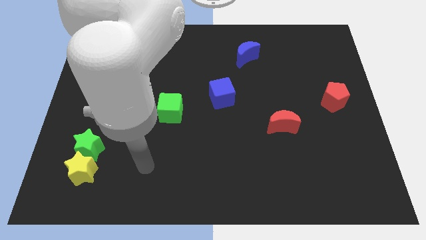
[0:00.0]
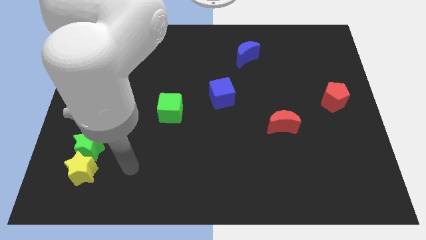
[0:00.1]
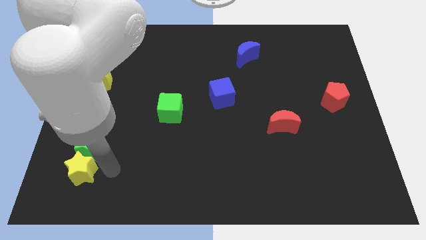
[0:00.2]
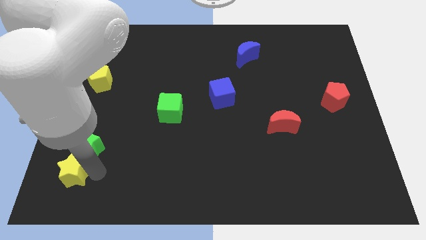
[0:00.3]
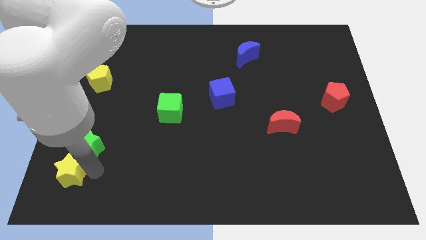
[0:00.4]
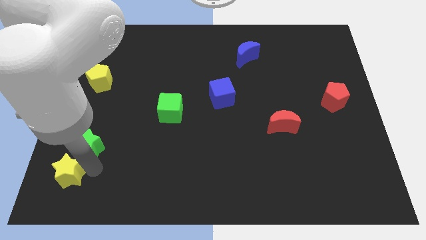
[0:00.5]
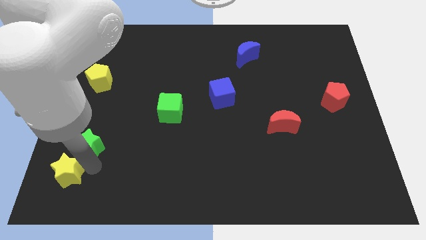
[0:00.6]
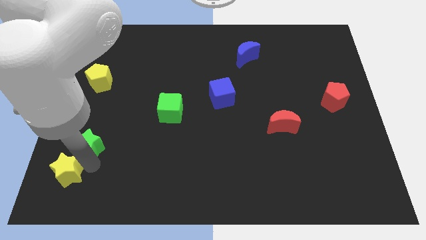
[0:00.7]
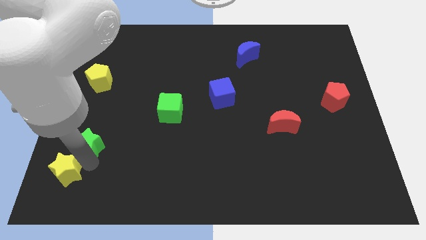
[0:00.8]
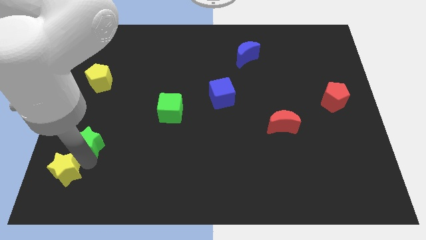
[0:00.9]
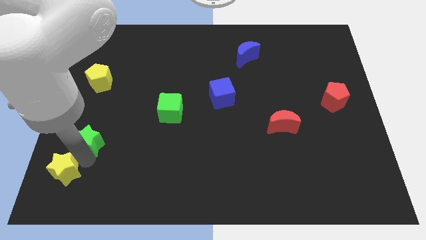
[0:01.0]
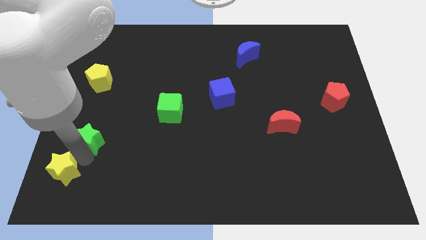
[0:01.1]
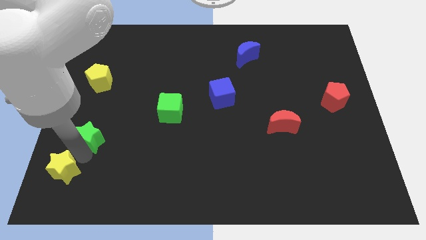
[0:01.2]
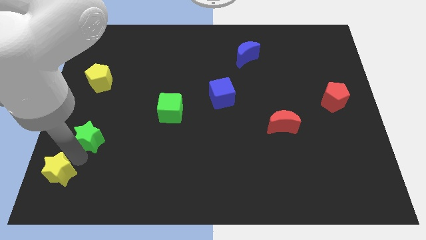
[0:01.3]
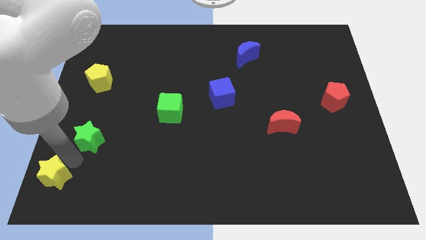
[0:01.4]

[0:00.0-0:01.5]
move the green star away from the yellow star

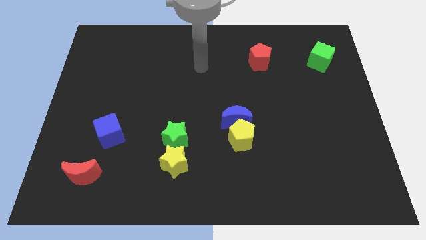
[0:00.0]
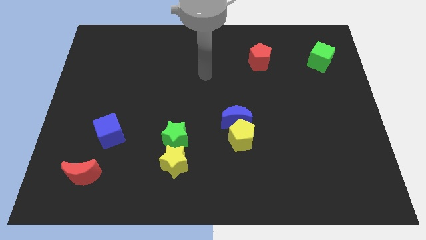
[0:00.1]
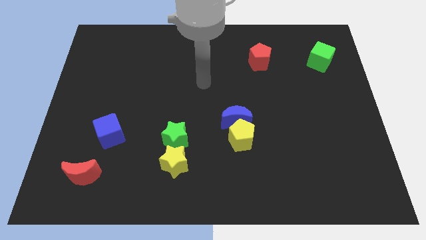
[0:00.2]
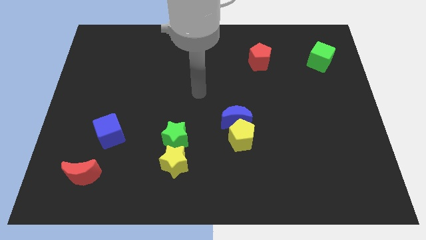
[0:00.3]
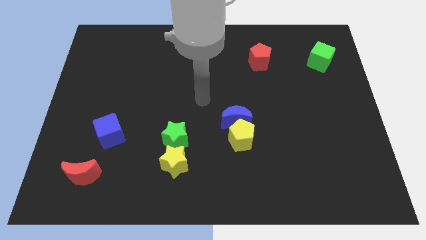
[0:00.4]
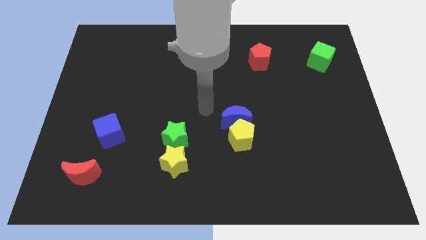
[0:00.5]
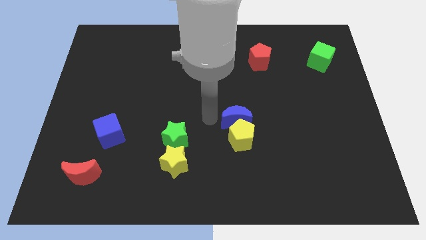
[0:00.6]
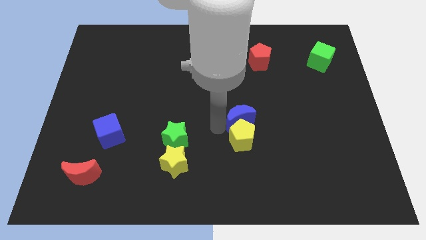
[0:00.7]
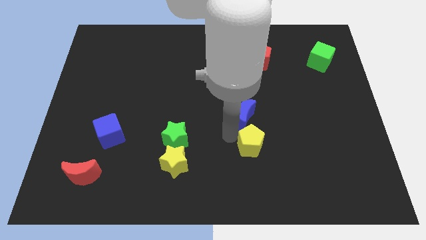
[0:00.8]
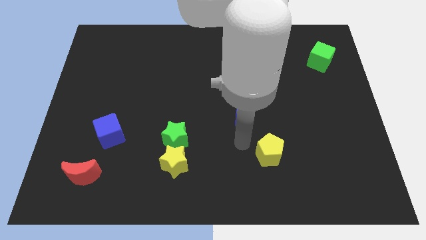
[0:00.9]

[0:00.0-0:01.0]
move the blue moon away from the yellow pentagon

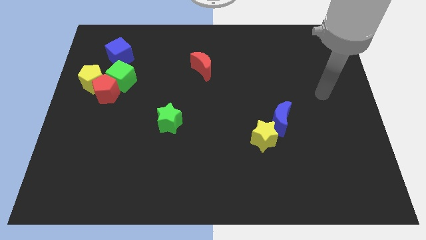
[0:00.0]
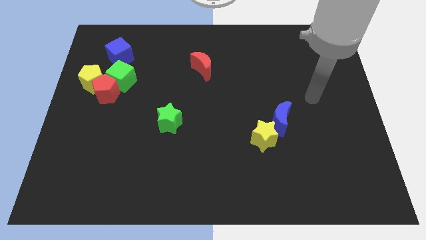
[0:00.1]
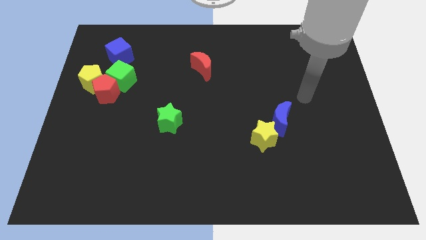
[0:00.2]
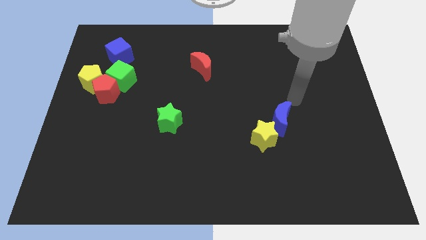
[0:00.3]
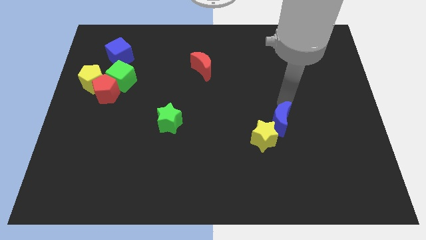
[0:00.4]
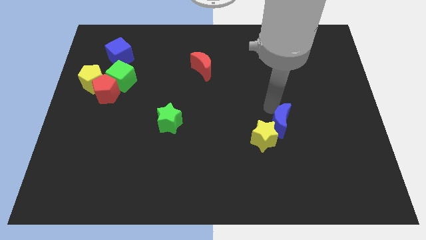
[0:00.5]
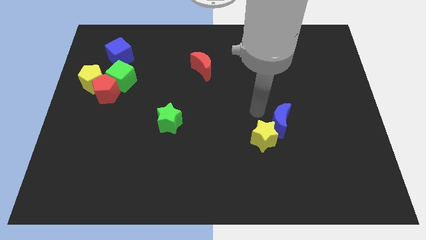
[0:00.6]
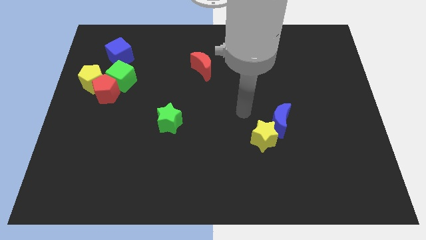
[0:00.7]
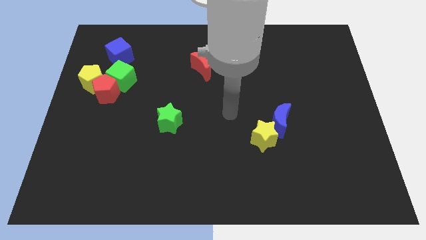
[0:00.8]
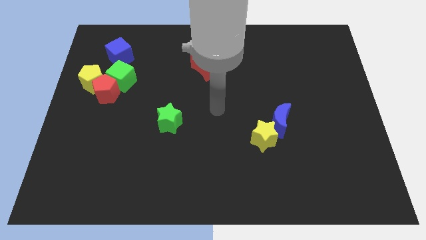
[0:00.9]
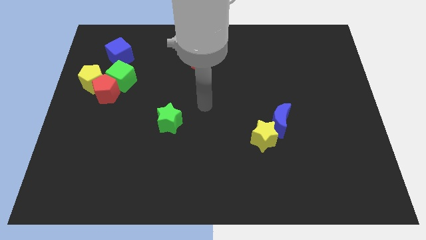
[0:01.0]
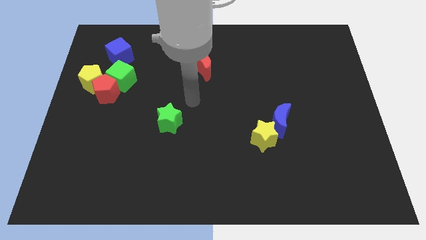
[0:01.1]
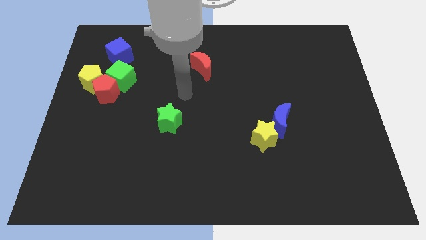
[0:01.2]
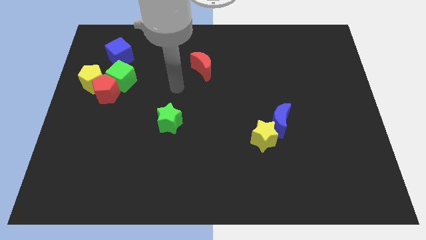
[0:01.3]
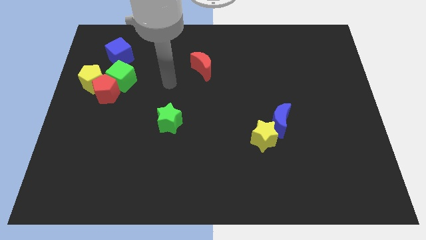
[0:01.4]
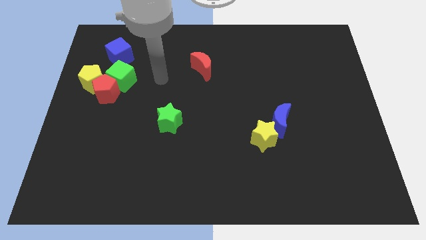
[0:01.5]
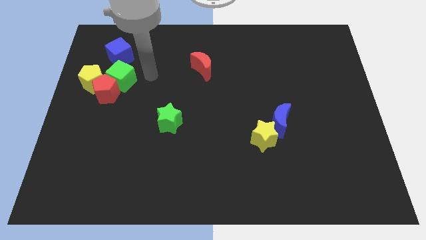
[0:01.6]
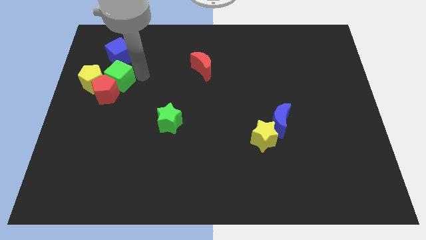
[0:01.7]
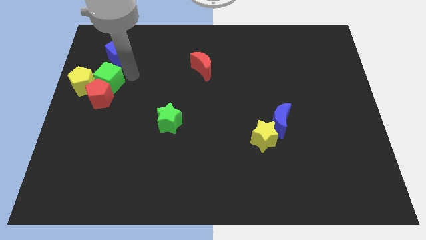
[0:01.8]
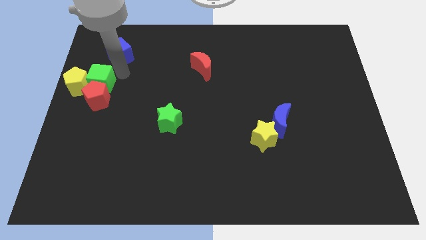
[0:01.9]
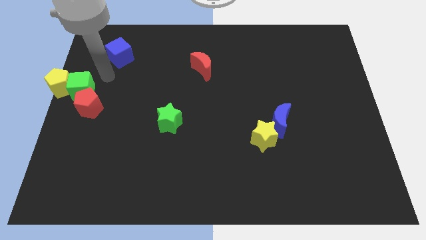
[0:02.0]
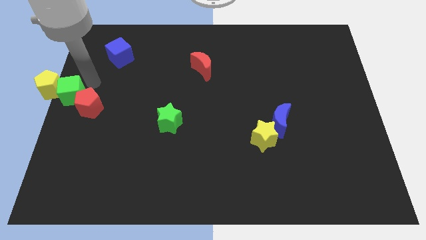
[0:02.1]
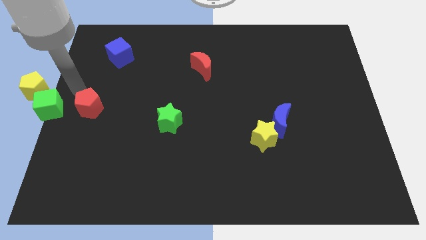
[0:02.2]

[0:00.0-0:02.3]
pull the red pentagon apart from the yellow pentagon and green cube

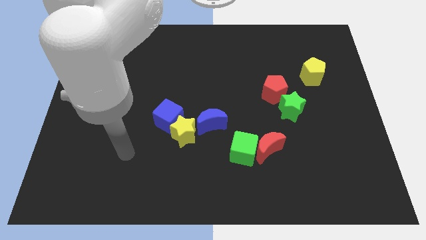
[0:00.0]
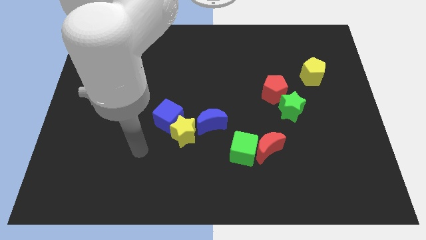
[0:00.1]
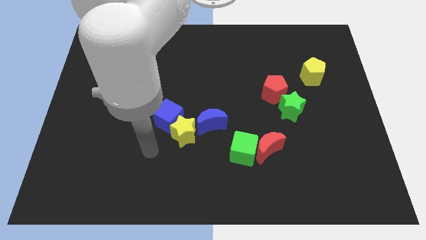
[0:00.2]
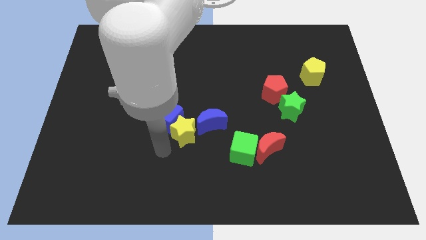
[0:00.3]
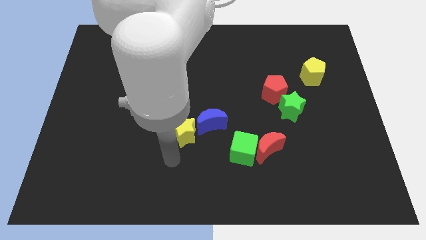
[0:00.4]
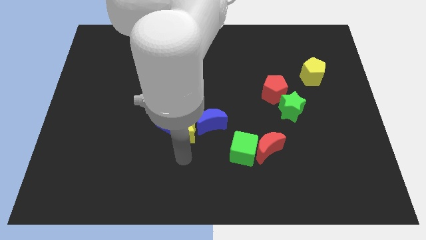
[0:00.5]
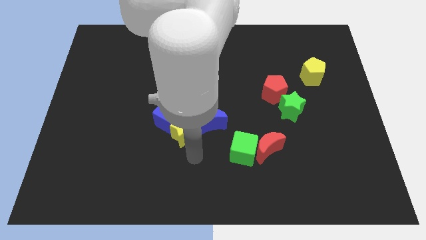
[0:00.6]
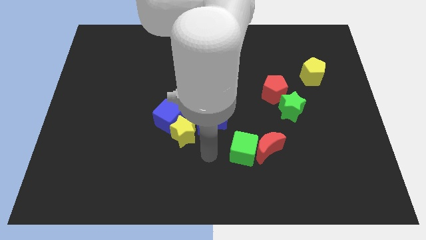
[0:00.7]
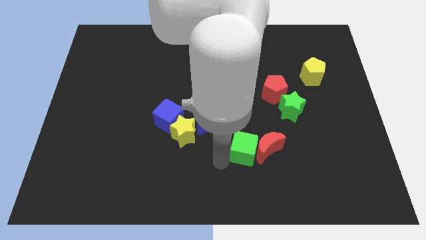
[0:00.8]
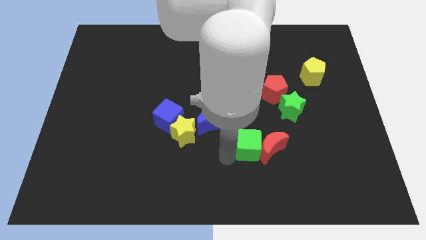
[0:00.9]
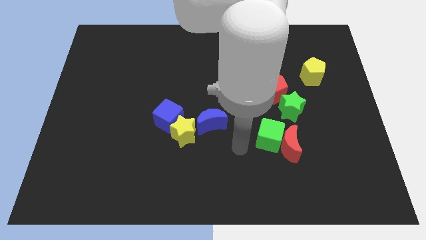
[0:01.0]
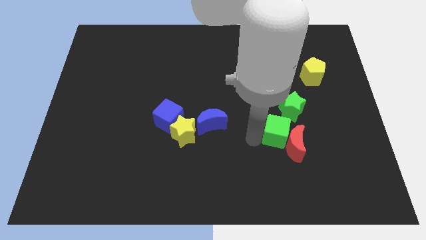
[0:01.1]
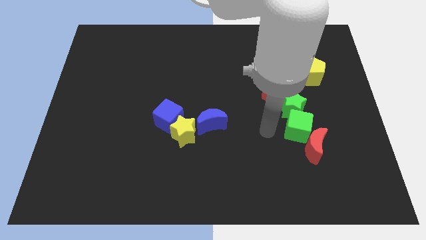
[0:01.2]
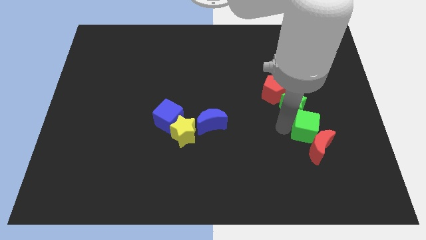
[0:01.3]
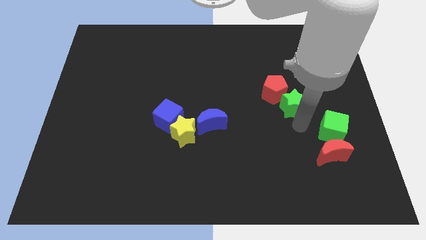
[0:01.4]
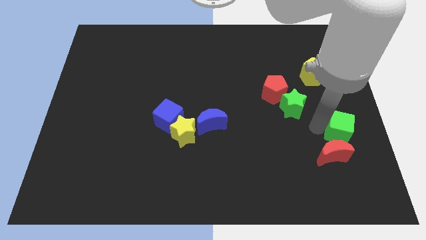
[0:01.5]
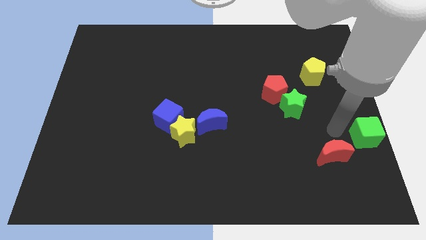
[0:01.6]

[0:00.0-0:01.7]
pull the red moon apart from the green cube

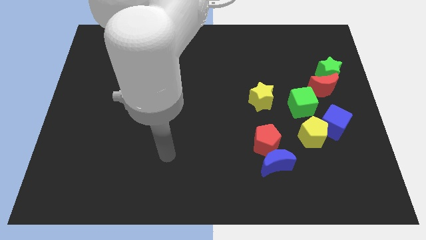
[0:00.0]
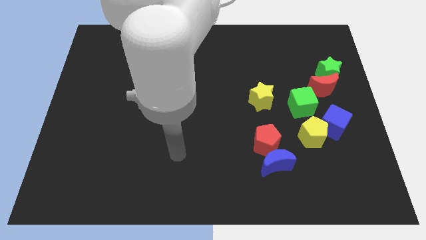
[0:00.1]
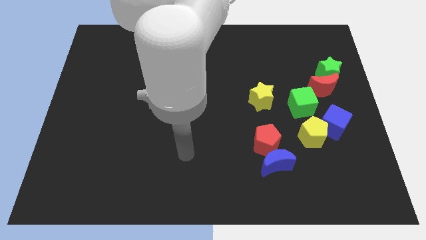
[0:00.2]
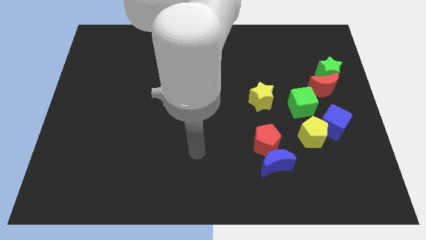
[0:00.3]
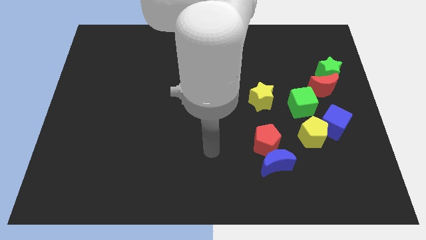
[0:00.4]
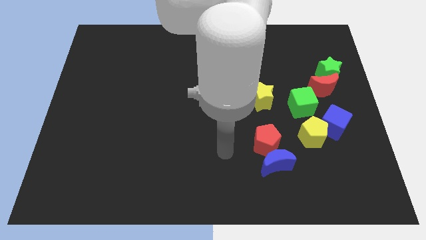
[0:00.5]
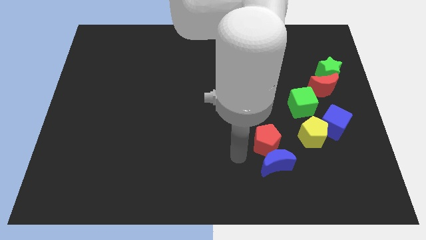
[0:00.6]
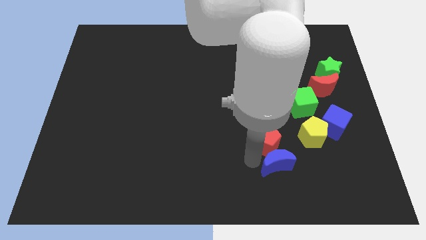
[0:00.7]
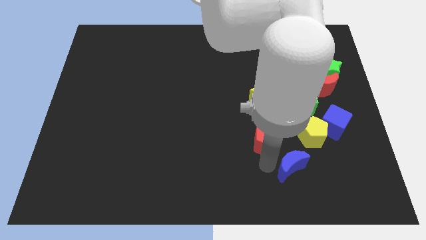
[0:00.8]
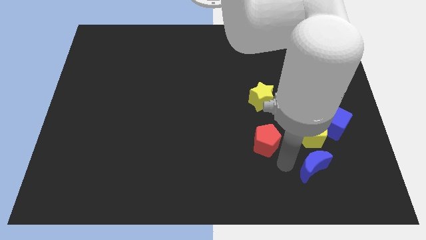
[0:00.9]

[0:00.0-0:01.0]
move the red pentagon away from the blue moon

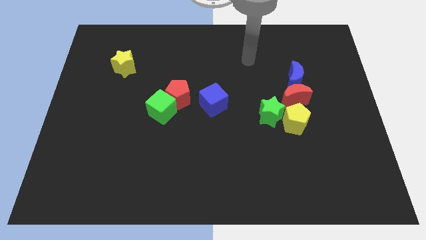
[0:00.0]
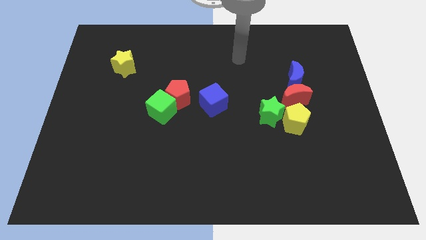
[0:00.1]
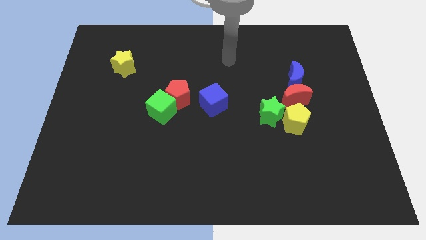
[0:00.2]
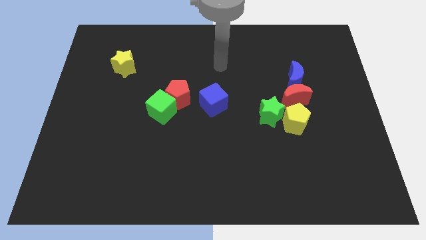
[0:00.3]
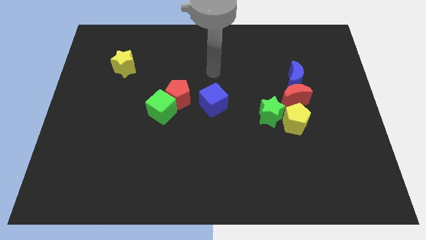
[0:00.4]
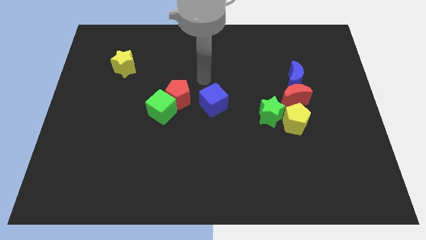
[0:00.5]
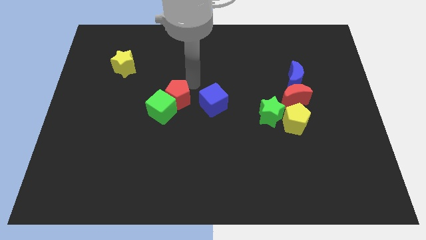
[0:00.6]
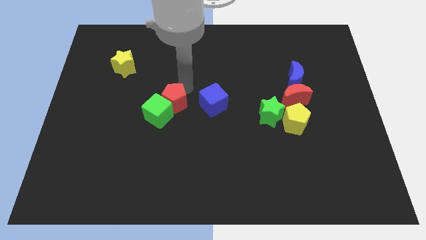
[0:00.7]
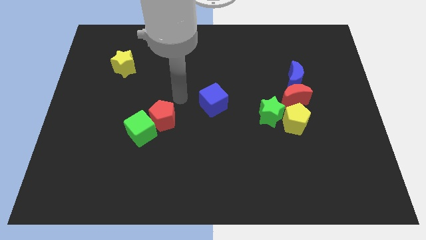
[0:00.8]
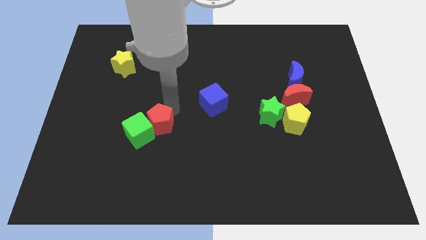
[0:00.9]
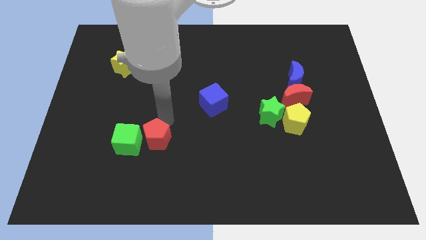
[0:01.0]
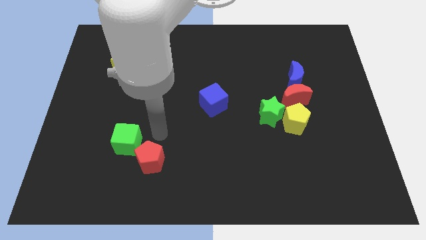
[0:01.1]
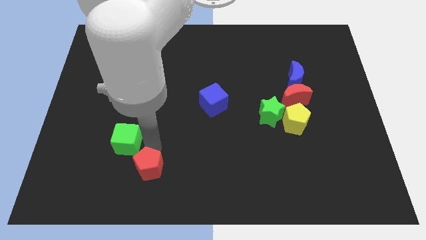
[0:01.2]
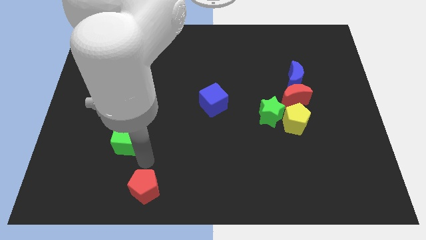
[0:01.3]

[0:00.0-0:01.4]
move the green cube away from the red pentagon

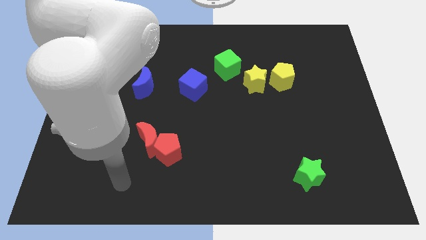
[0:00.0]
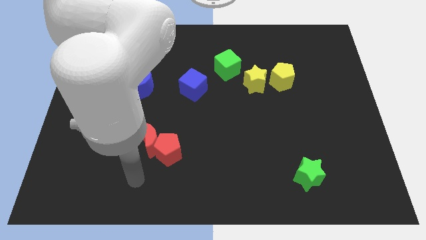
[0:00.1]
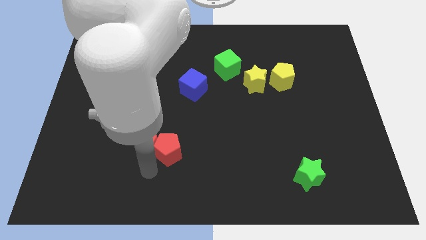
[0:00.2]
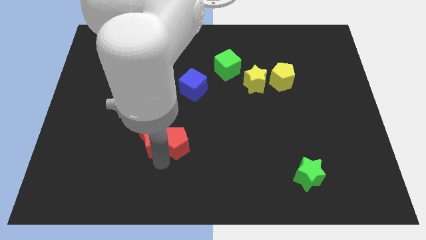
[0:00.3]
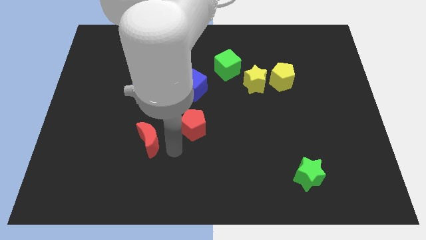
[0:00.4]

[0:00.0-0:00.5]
move the red moon away from the red pentagon
